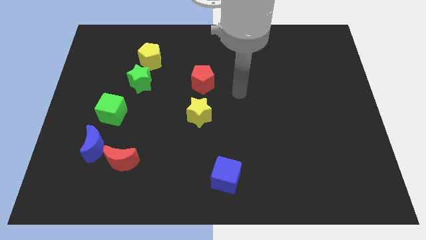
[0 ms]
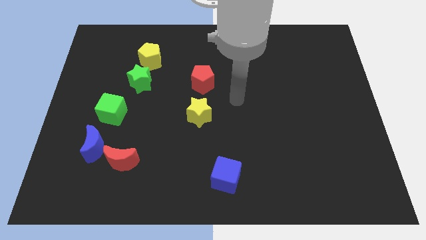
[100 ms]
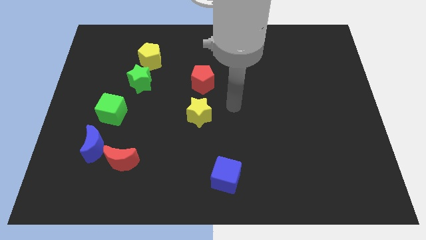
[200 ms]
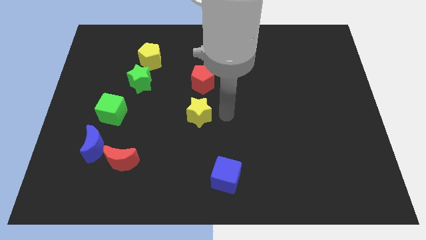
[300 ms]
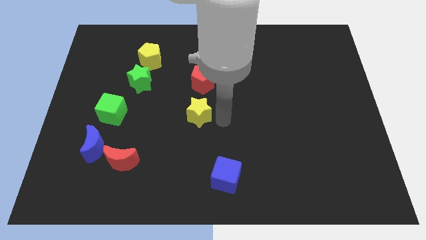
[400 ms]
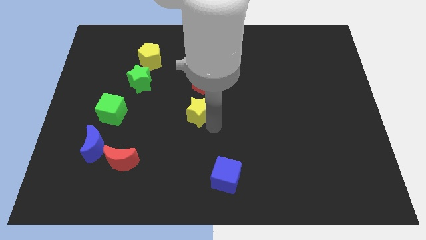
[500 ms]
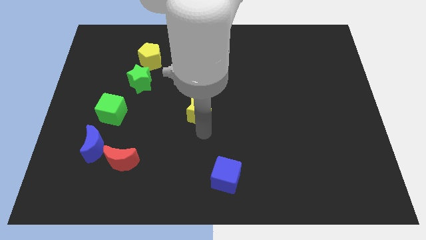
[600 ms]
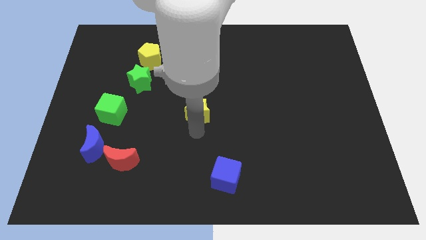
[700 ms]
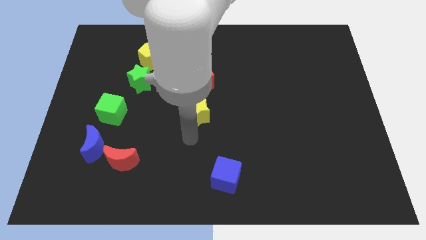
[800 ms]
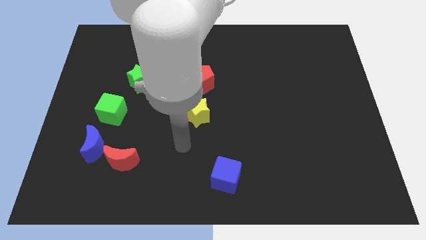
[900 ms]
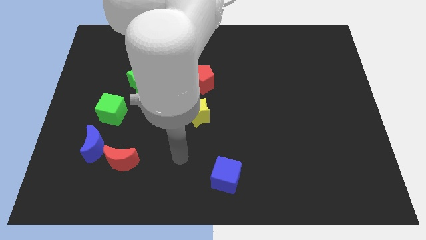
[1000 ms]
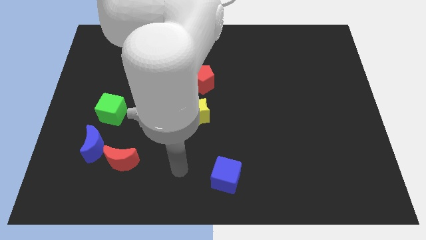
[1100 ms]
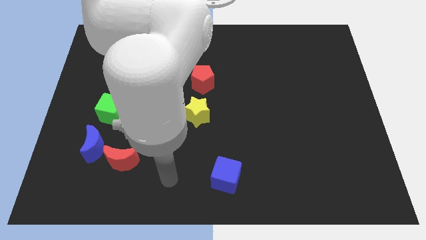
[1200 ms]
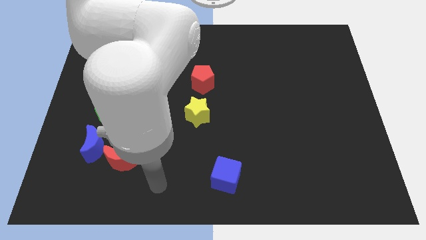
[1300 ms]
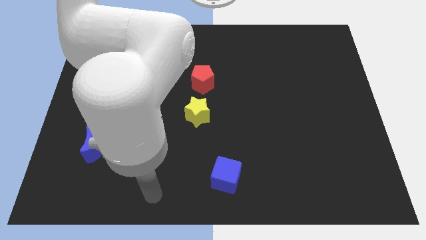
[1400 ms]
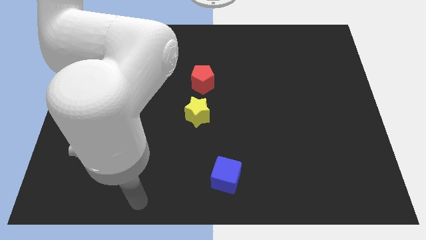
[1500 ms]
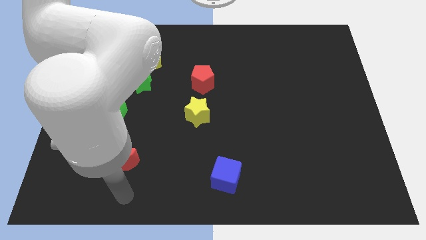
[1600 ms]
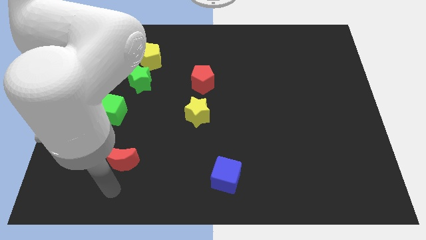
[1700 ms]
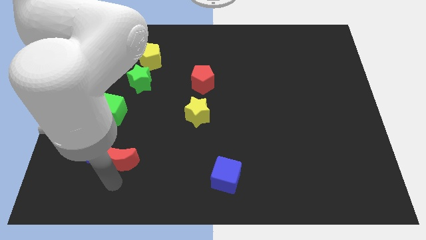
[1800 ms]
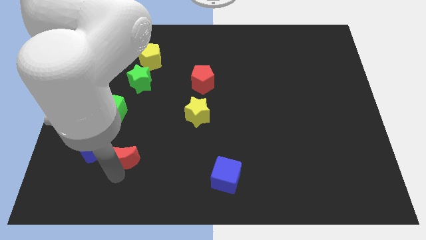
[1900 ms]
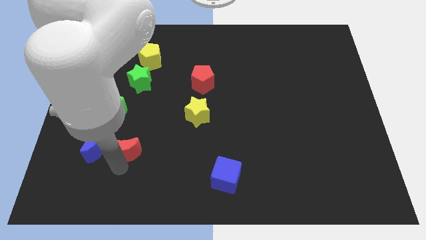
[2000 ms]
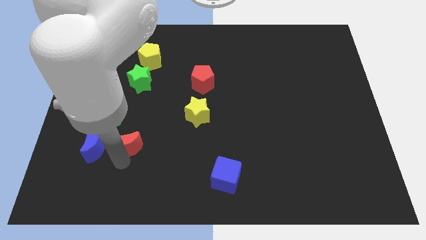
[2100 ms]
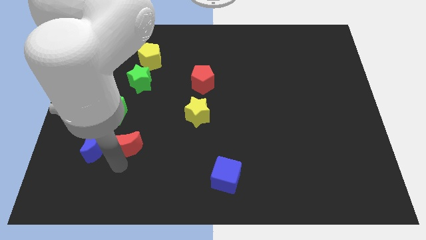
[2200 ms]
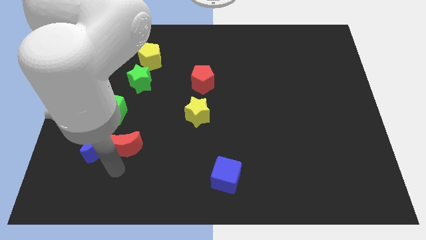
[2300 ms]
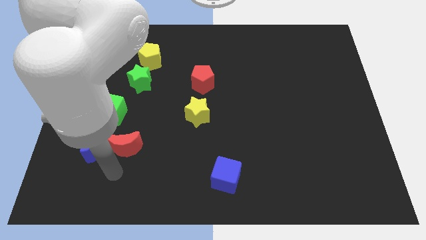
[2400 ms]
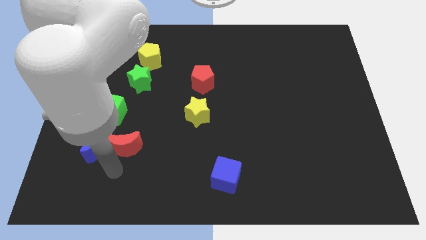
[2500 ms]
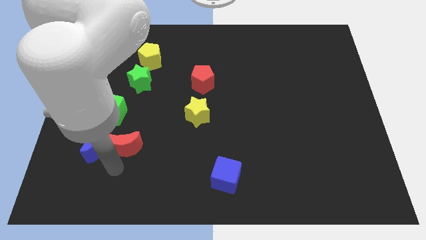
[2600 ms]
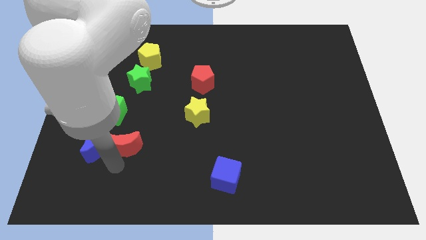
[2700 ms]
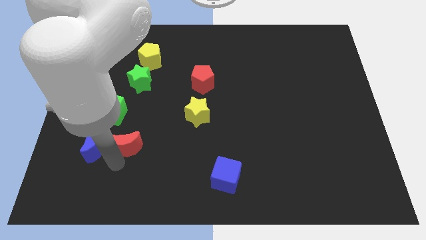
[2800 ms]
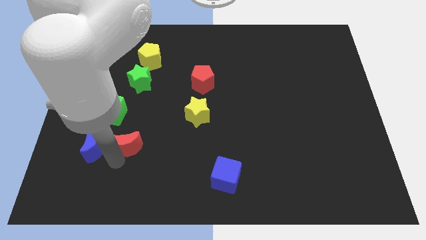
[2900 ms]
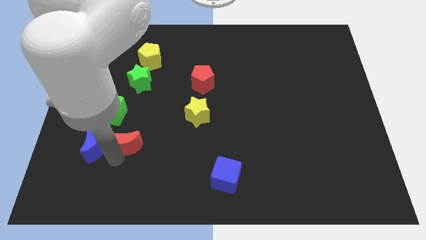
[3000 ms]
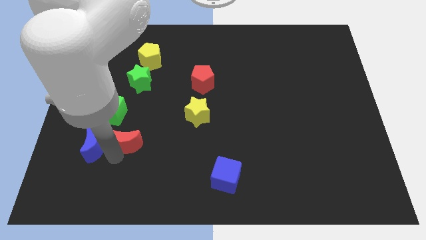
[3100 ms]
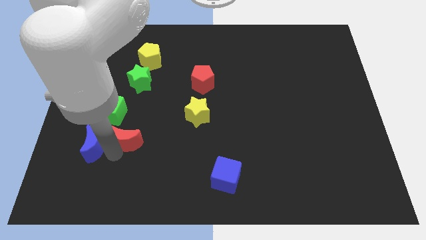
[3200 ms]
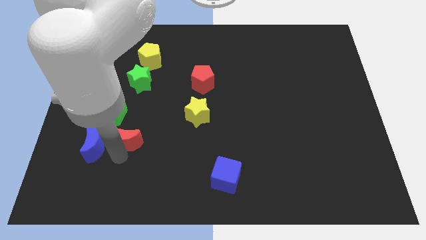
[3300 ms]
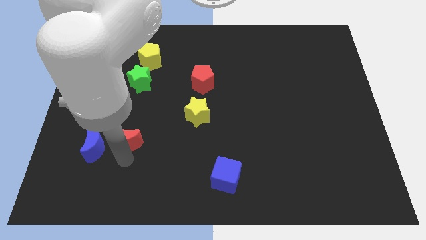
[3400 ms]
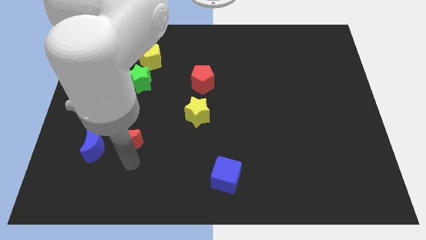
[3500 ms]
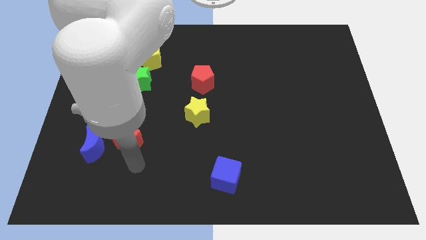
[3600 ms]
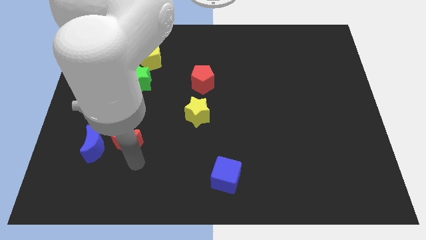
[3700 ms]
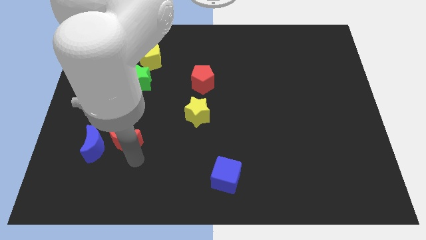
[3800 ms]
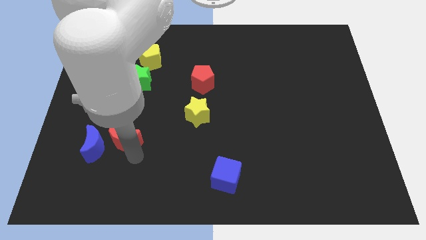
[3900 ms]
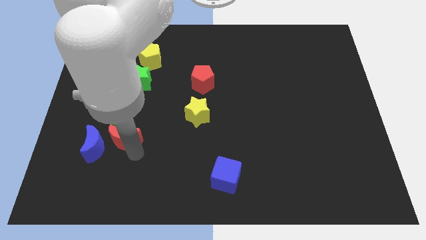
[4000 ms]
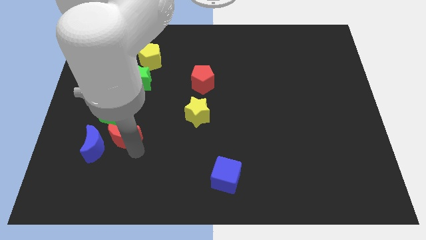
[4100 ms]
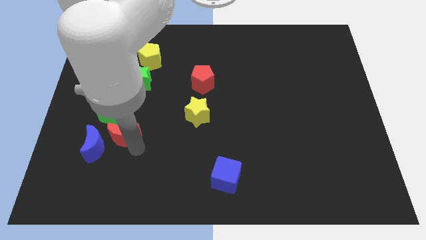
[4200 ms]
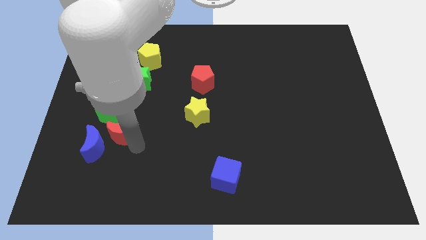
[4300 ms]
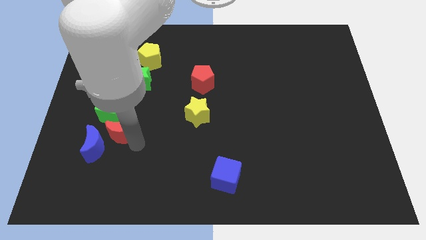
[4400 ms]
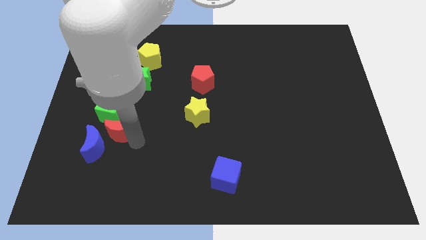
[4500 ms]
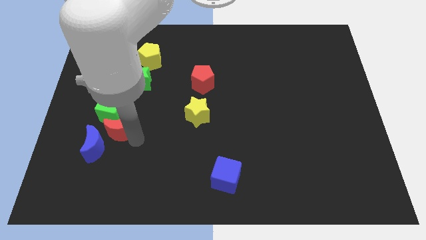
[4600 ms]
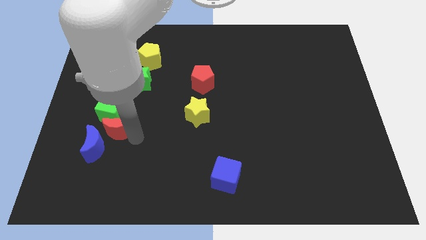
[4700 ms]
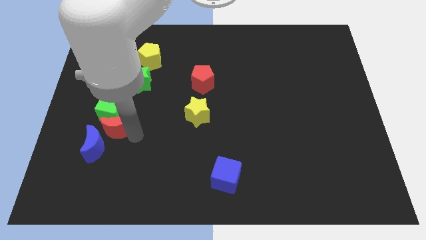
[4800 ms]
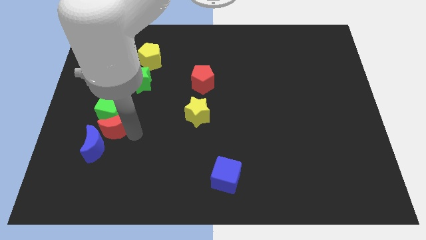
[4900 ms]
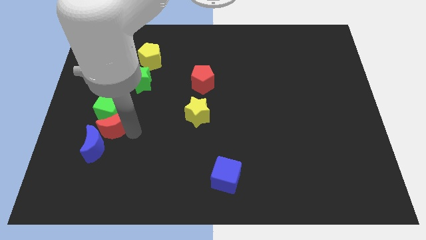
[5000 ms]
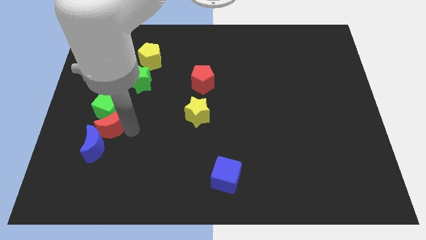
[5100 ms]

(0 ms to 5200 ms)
move the red moon to the bottom left side of the green cube

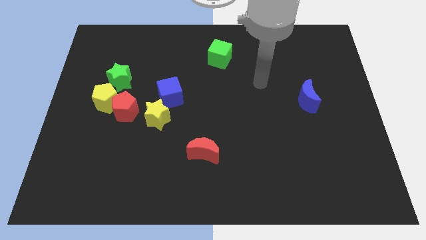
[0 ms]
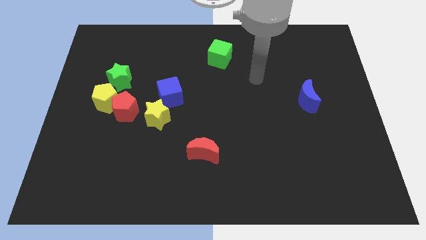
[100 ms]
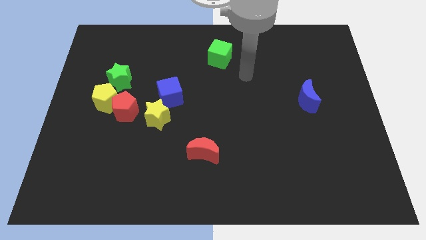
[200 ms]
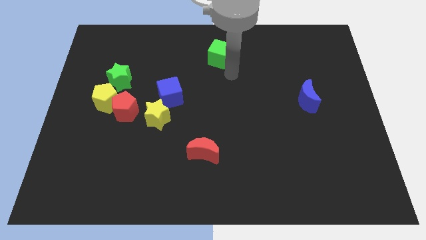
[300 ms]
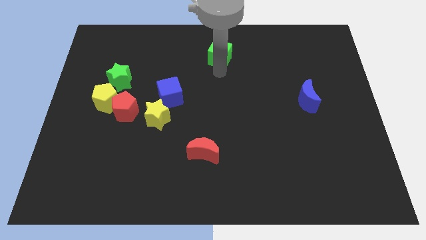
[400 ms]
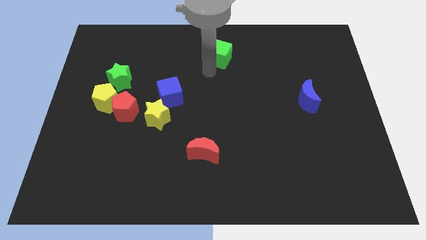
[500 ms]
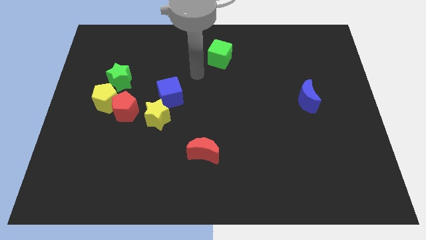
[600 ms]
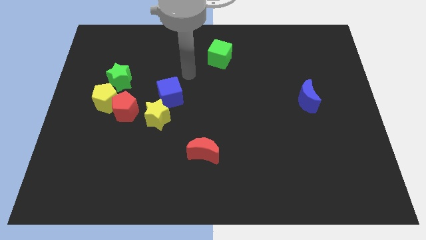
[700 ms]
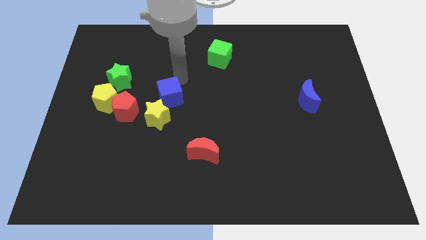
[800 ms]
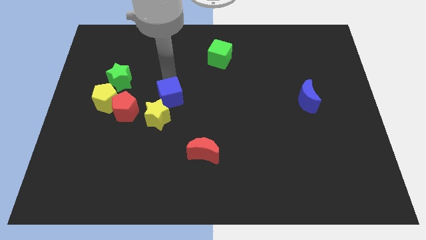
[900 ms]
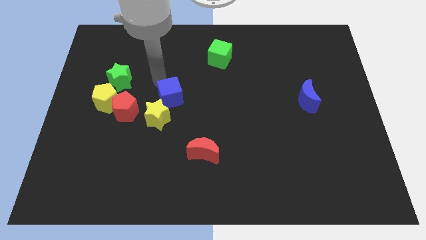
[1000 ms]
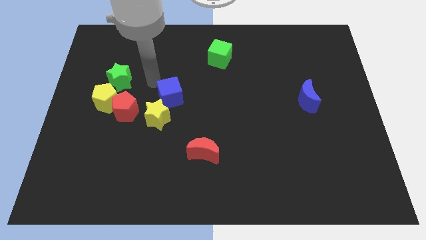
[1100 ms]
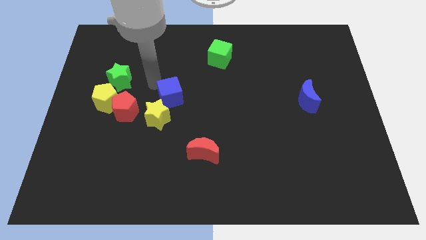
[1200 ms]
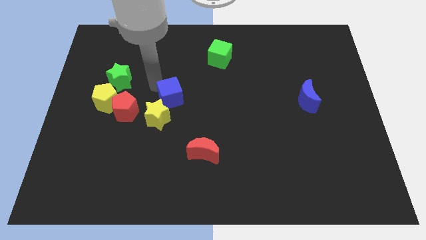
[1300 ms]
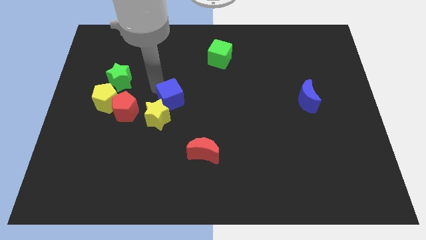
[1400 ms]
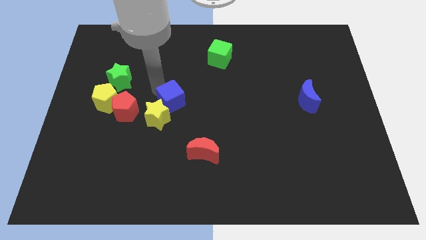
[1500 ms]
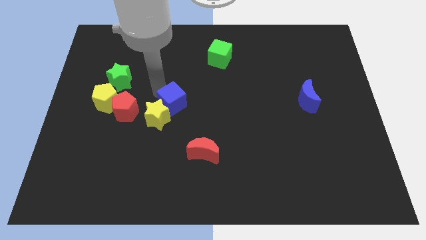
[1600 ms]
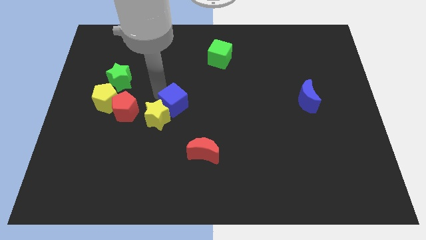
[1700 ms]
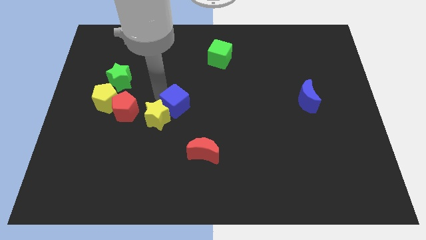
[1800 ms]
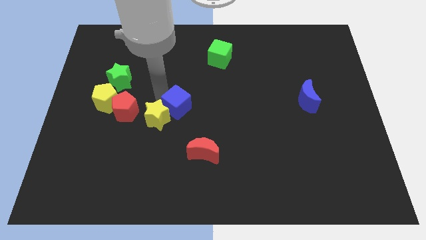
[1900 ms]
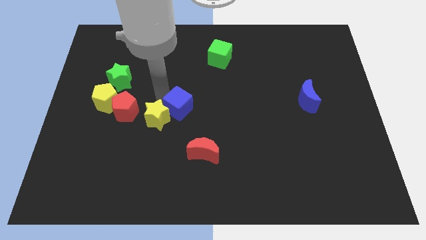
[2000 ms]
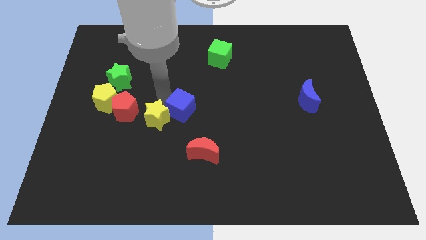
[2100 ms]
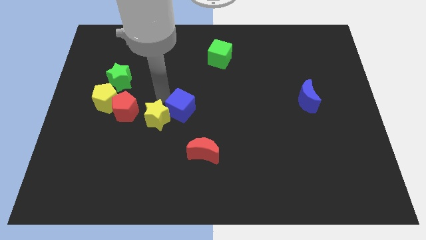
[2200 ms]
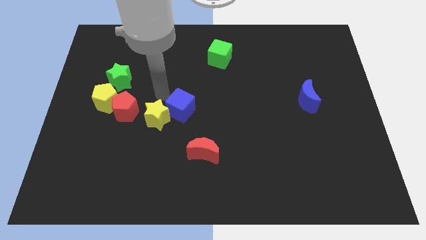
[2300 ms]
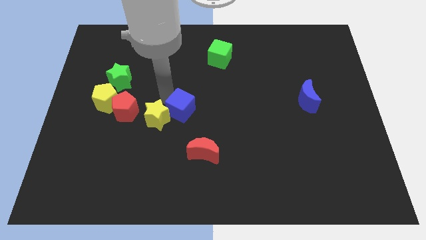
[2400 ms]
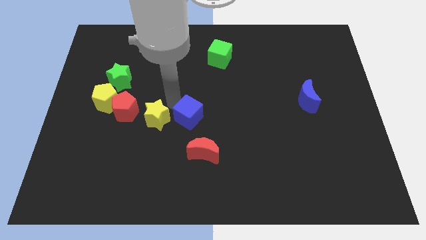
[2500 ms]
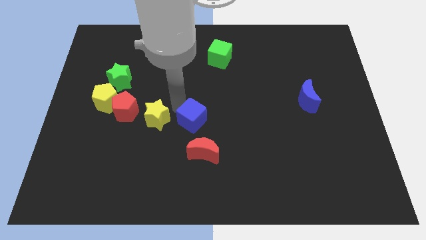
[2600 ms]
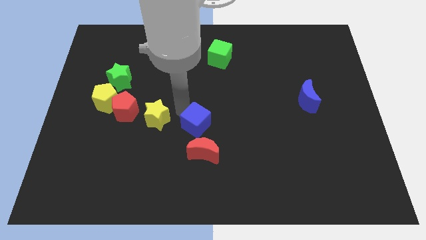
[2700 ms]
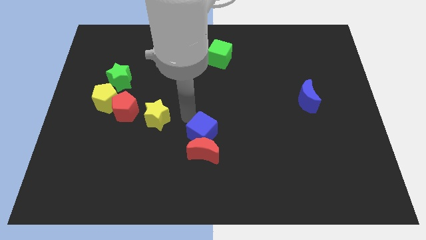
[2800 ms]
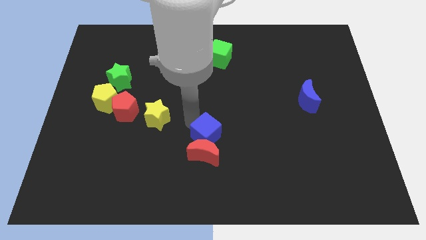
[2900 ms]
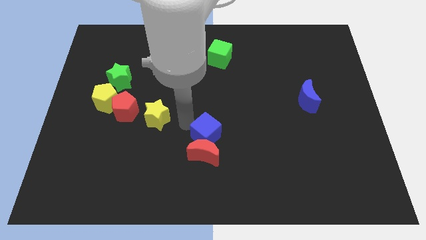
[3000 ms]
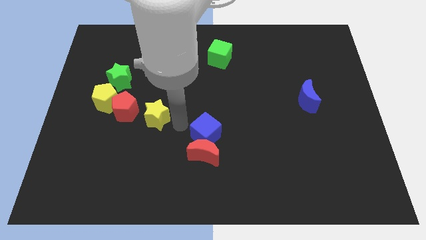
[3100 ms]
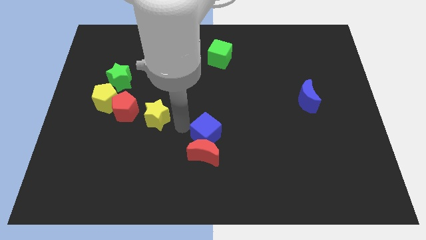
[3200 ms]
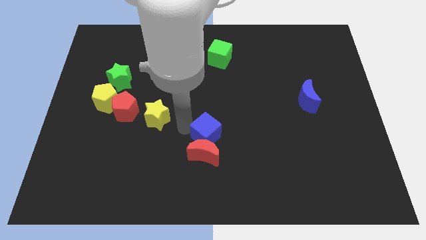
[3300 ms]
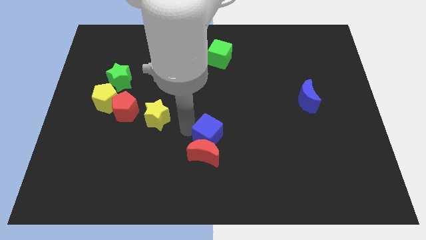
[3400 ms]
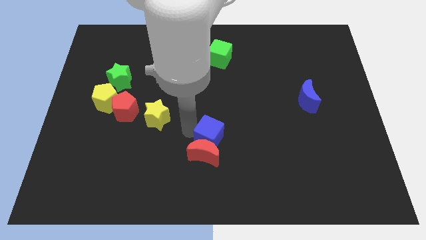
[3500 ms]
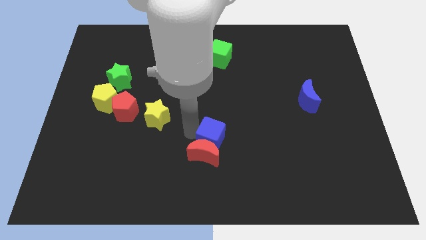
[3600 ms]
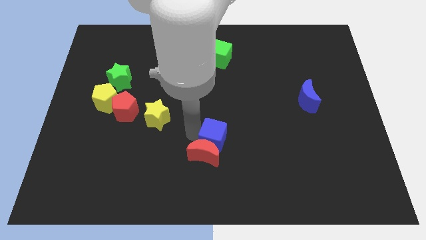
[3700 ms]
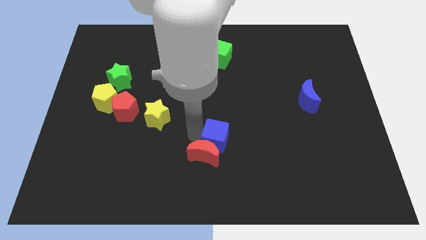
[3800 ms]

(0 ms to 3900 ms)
move the blue cube just right of the red moon
